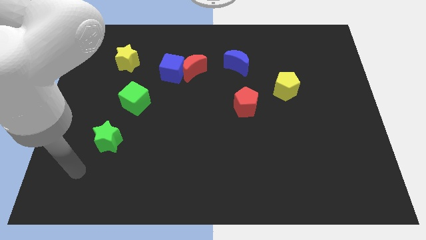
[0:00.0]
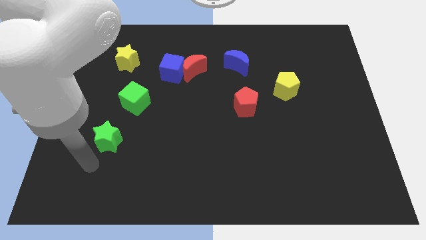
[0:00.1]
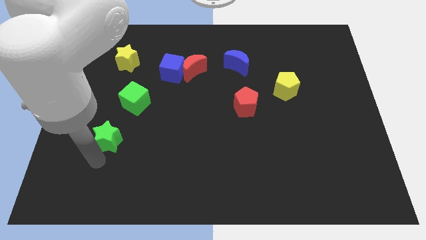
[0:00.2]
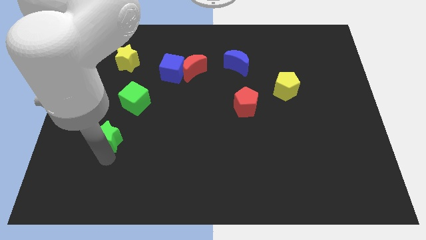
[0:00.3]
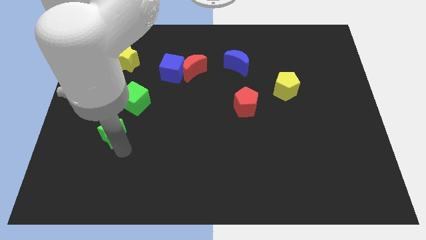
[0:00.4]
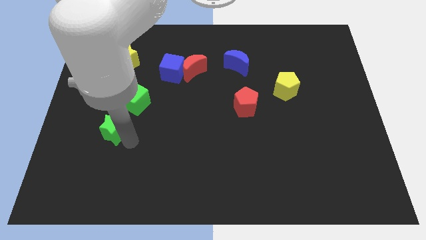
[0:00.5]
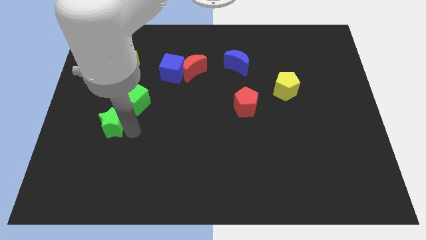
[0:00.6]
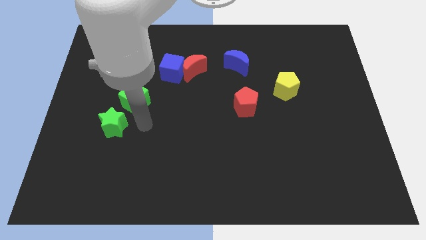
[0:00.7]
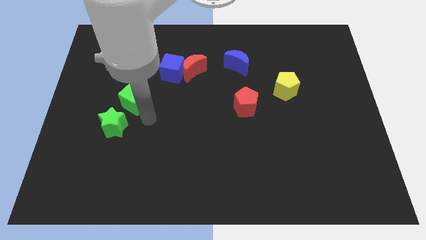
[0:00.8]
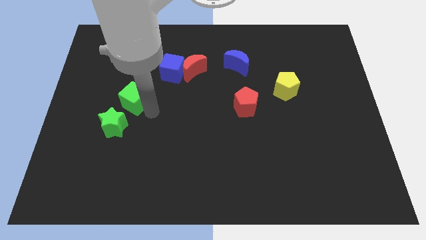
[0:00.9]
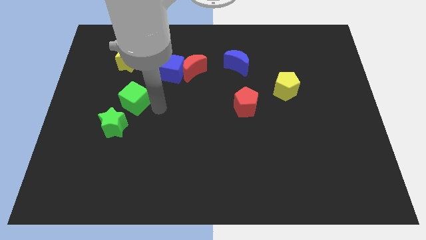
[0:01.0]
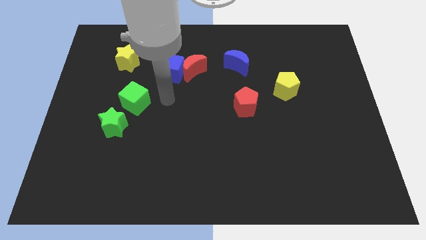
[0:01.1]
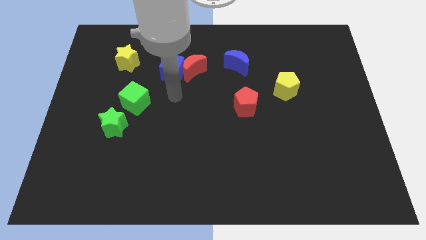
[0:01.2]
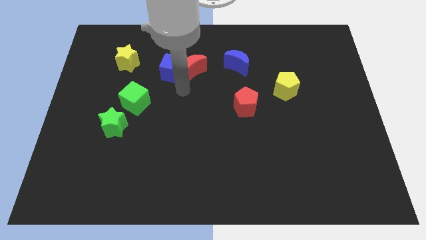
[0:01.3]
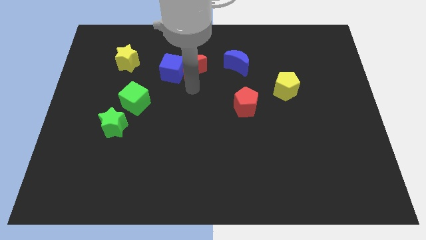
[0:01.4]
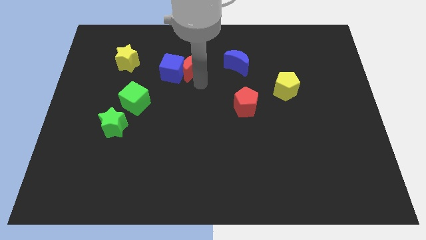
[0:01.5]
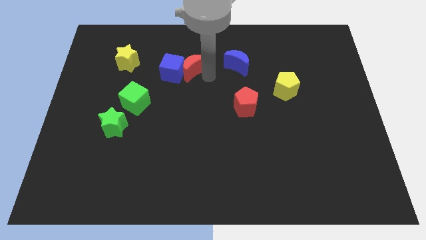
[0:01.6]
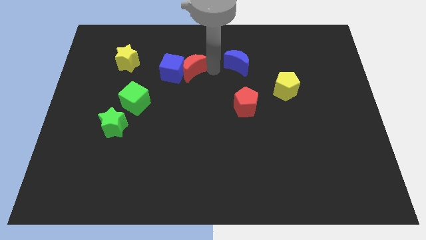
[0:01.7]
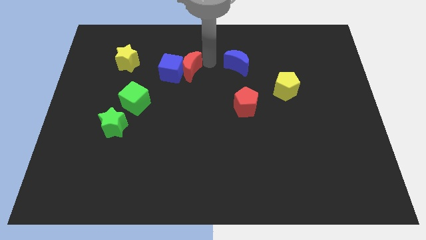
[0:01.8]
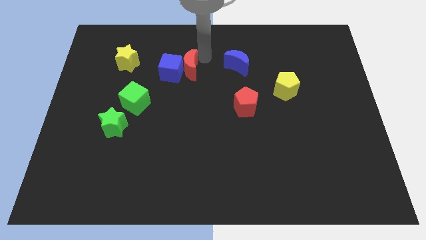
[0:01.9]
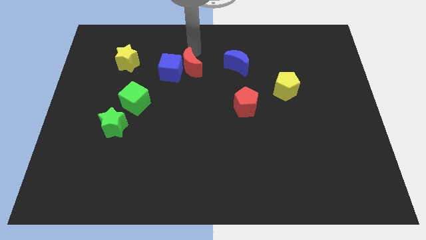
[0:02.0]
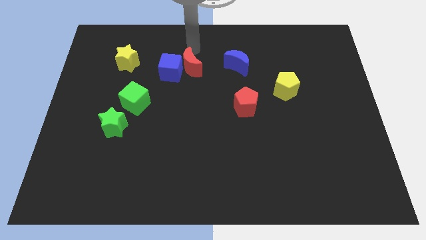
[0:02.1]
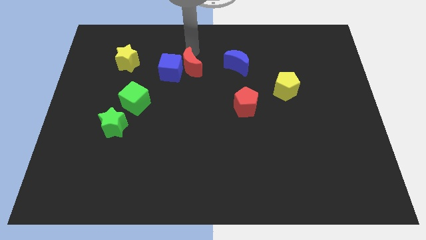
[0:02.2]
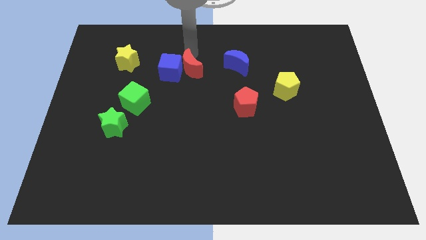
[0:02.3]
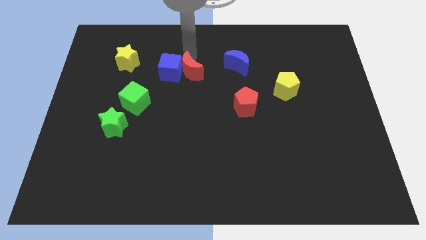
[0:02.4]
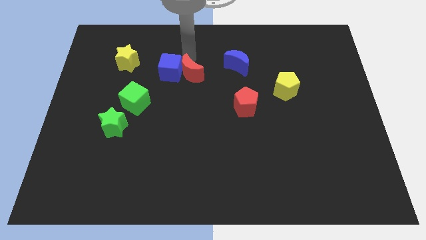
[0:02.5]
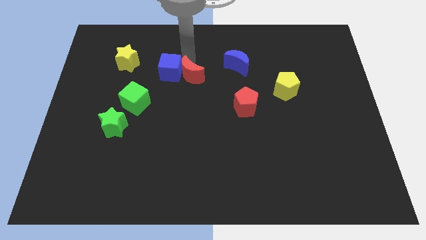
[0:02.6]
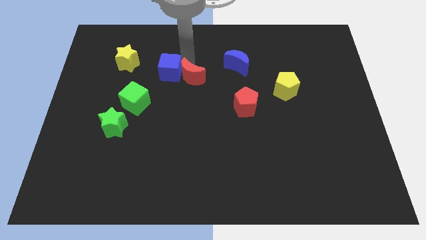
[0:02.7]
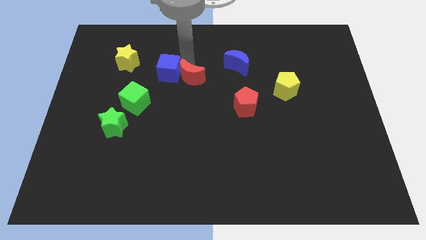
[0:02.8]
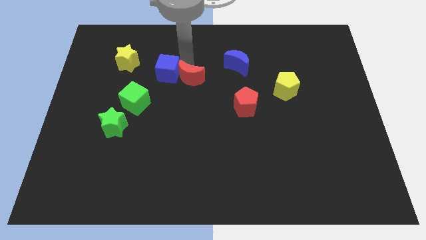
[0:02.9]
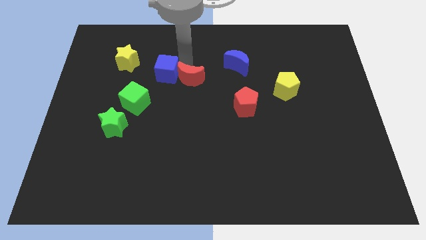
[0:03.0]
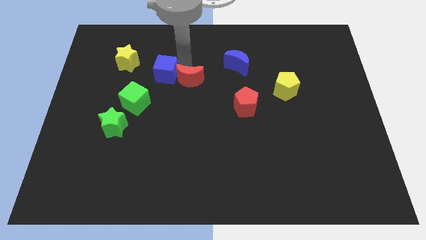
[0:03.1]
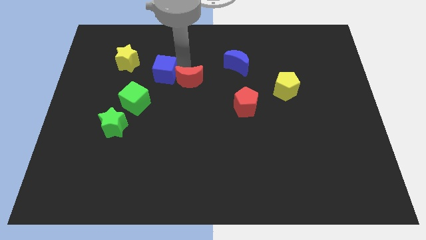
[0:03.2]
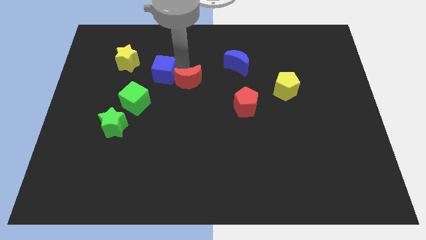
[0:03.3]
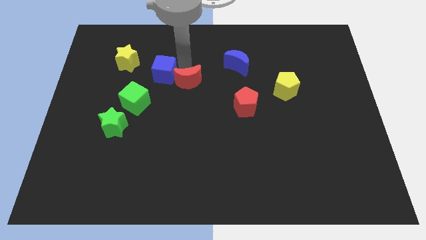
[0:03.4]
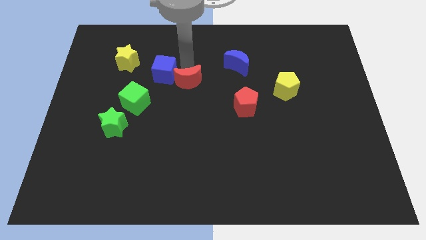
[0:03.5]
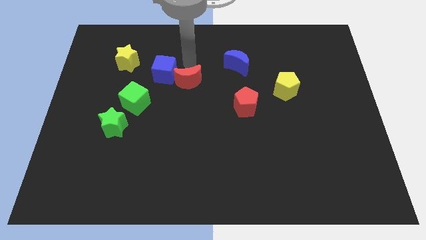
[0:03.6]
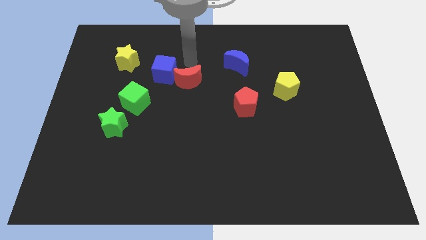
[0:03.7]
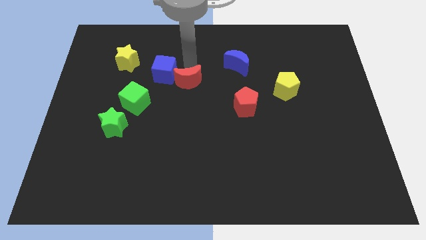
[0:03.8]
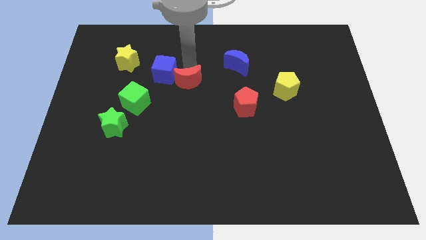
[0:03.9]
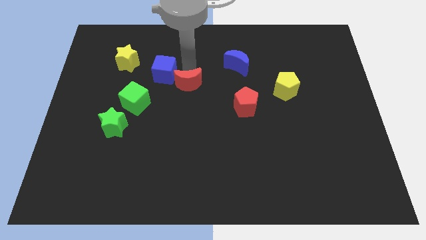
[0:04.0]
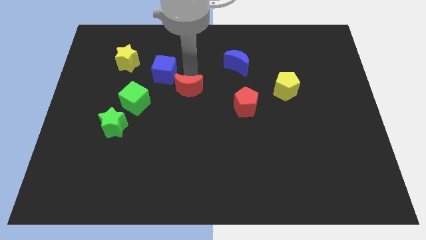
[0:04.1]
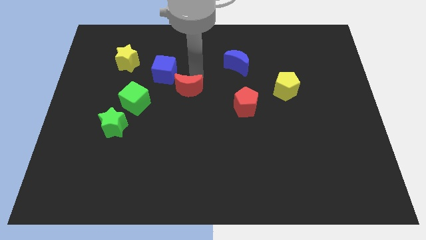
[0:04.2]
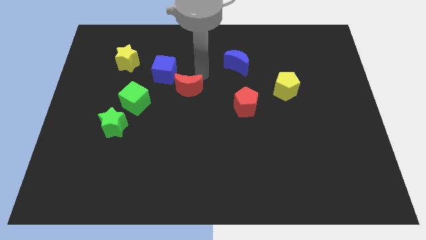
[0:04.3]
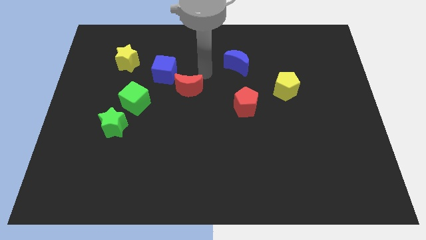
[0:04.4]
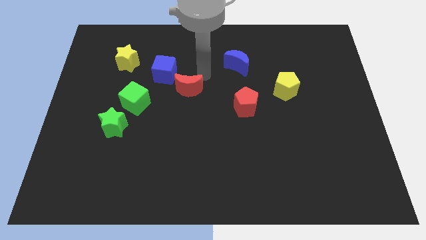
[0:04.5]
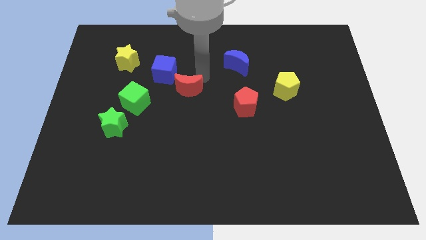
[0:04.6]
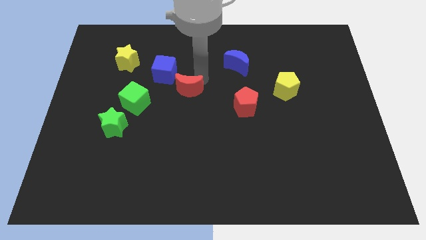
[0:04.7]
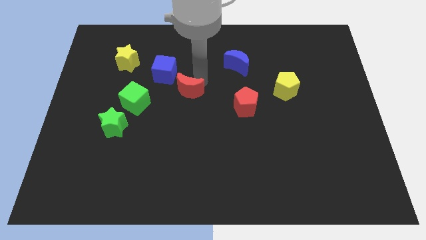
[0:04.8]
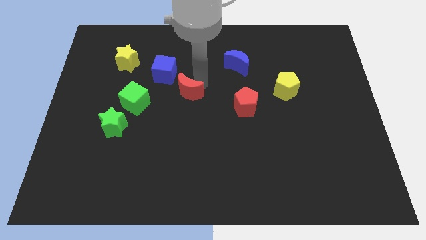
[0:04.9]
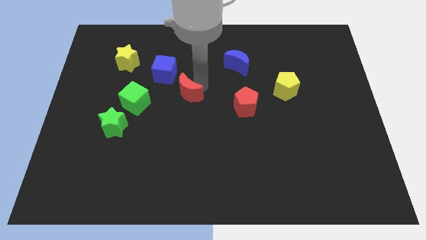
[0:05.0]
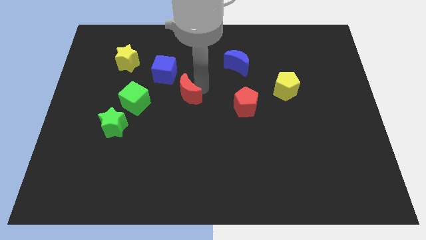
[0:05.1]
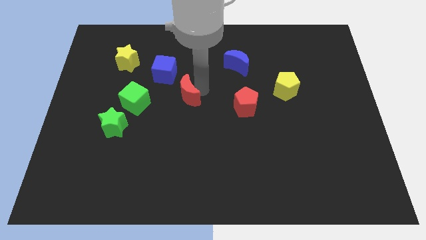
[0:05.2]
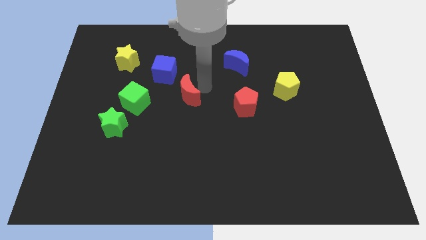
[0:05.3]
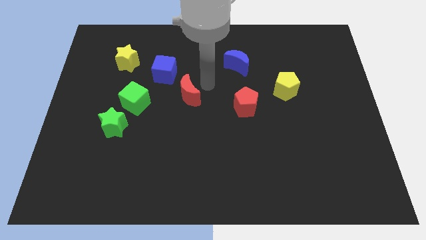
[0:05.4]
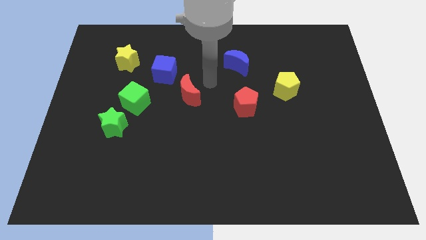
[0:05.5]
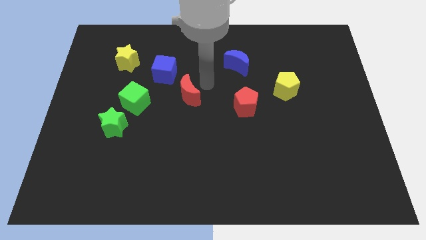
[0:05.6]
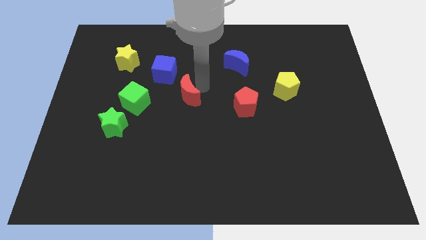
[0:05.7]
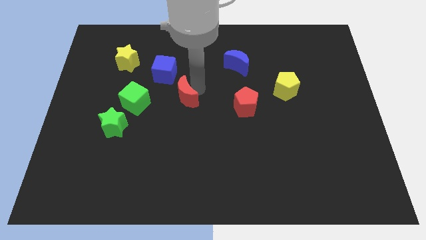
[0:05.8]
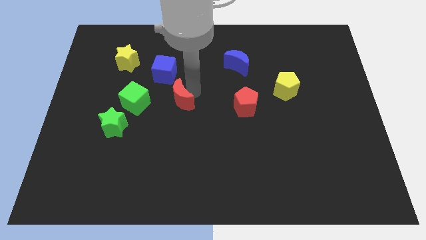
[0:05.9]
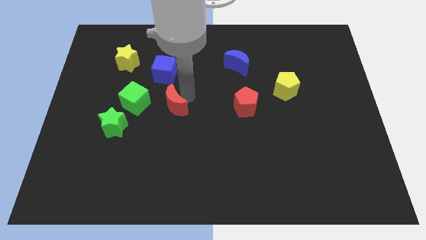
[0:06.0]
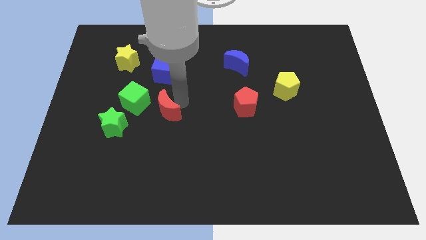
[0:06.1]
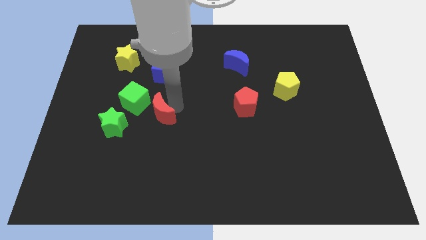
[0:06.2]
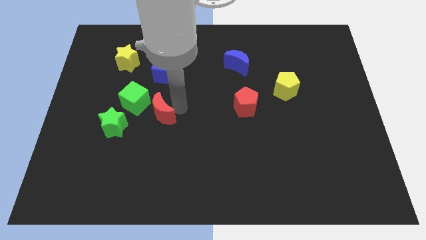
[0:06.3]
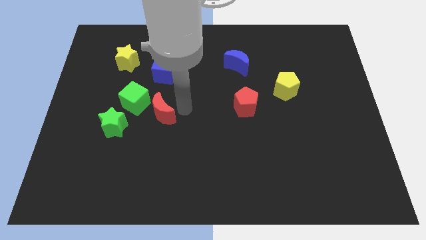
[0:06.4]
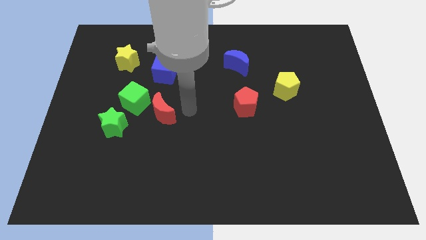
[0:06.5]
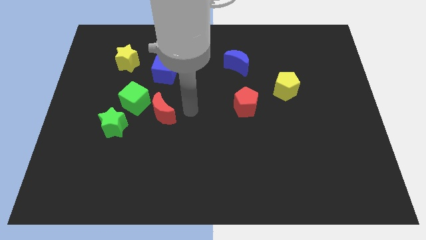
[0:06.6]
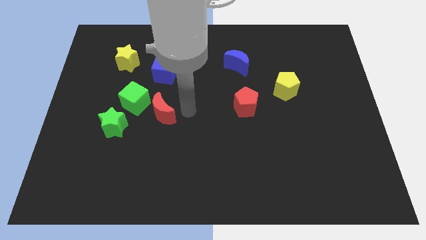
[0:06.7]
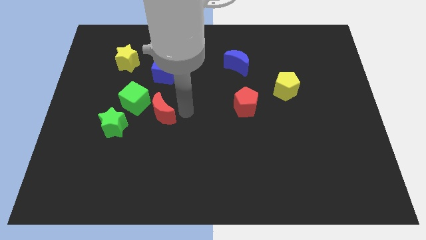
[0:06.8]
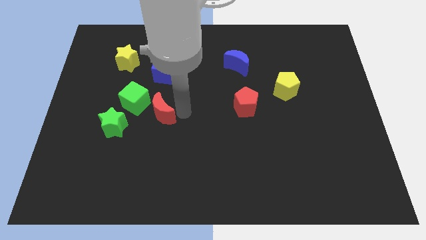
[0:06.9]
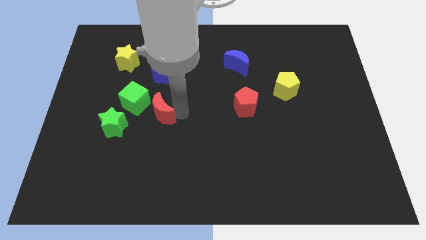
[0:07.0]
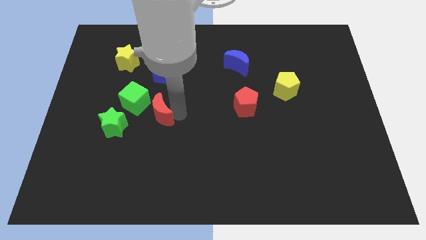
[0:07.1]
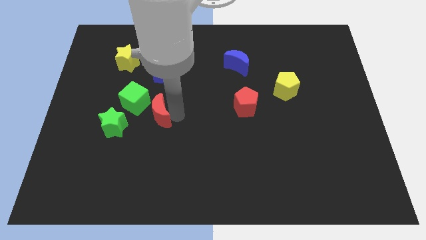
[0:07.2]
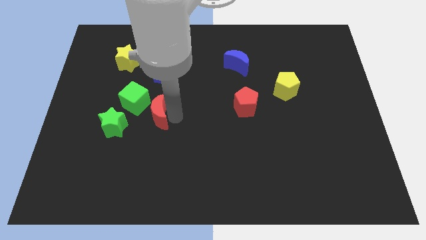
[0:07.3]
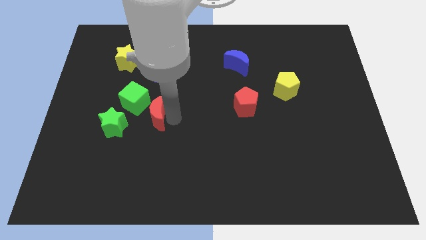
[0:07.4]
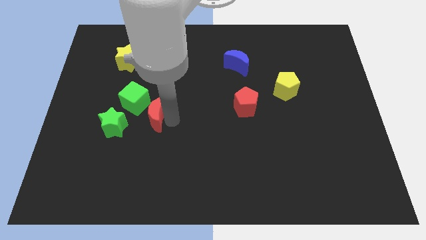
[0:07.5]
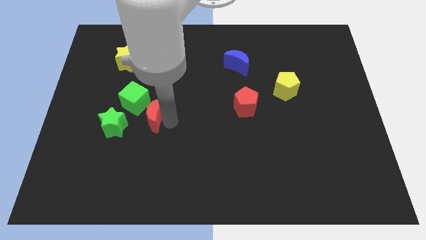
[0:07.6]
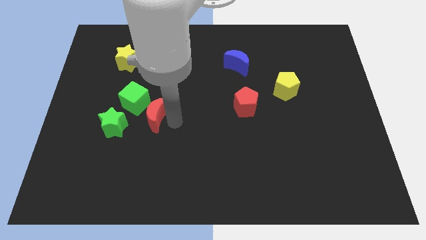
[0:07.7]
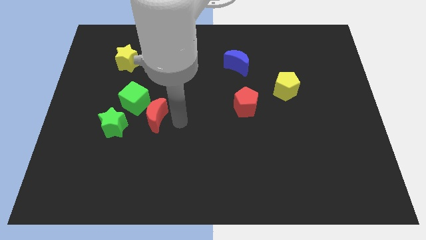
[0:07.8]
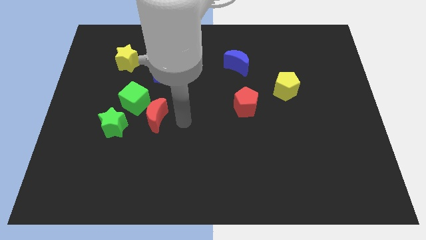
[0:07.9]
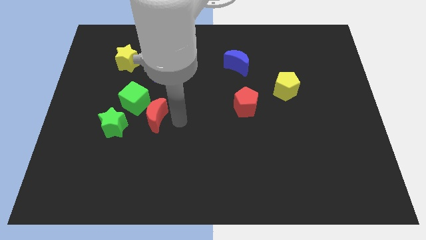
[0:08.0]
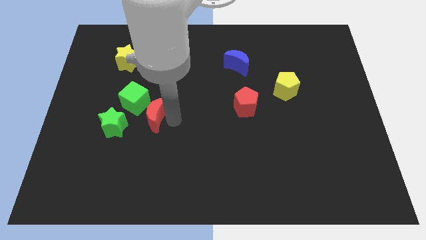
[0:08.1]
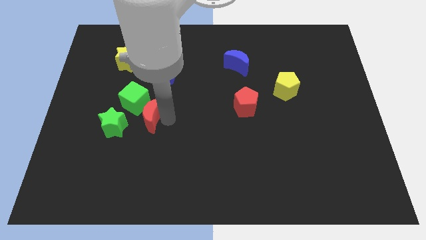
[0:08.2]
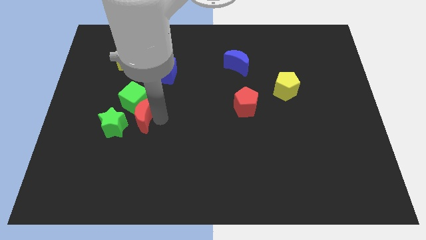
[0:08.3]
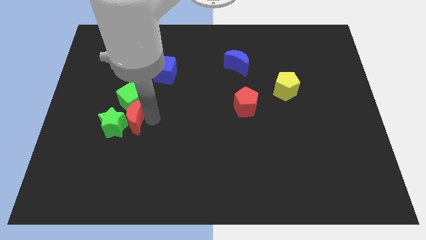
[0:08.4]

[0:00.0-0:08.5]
slide the red moon diagonally down and left
